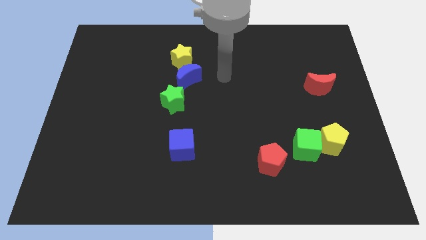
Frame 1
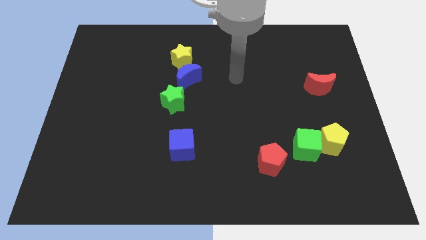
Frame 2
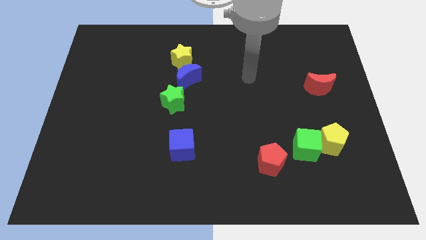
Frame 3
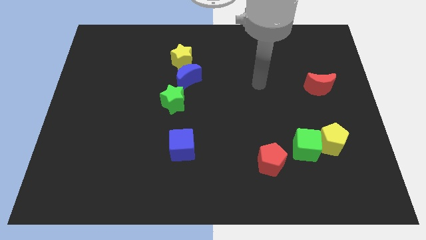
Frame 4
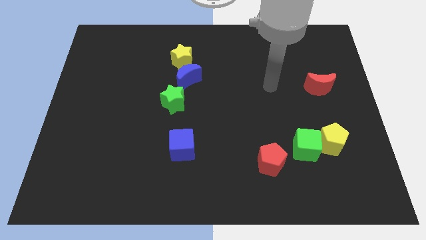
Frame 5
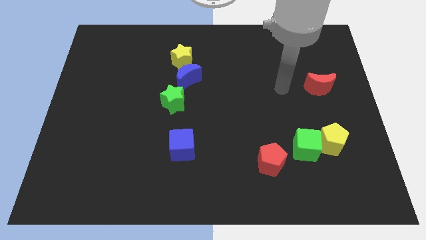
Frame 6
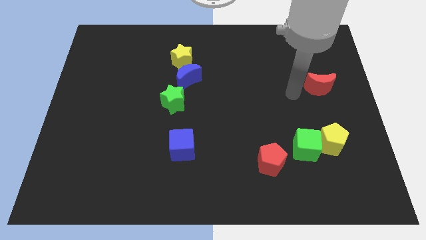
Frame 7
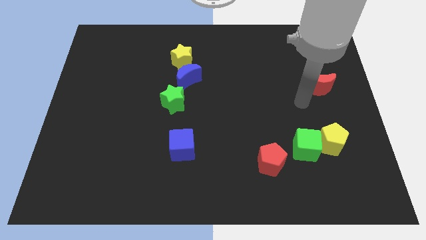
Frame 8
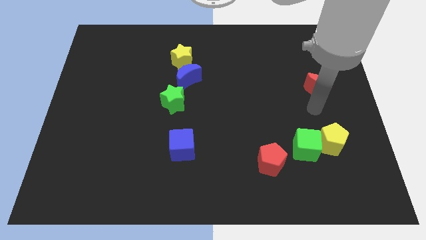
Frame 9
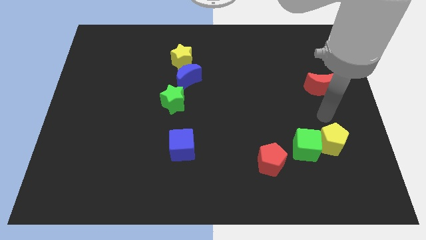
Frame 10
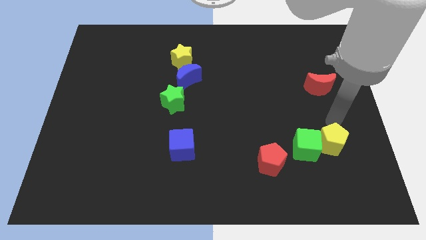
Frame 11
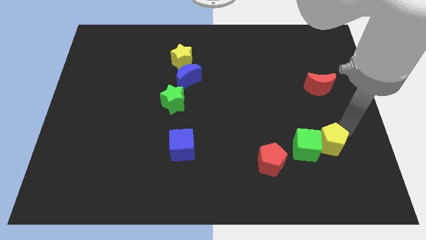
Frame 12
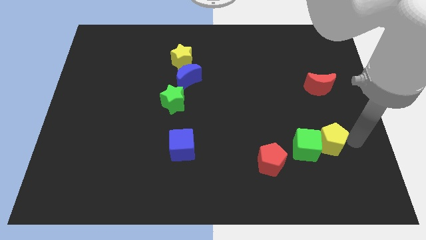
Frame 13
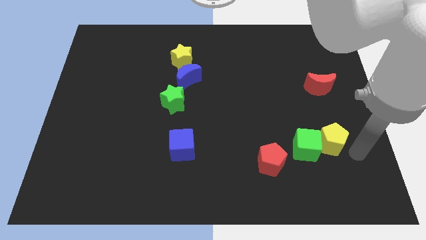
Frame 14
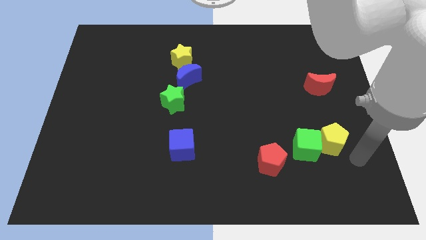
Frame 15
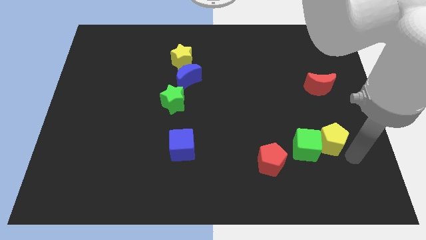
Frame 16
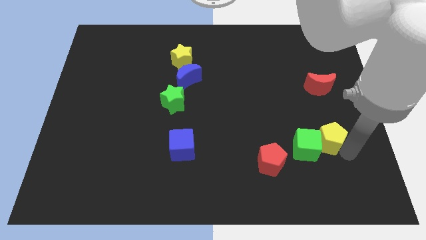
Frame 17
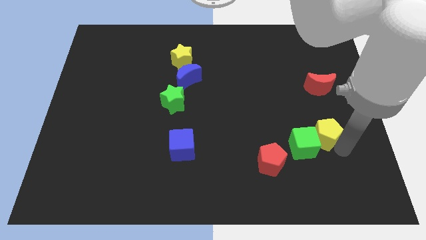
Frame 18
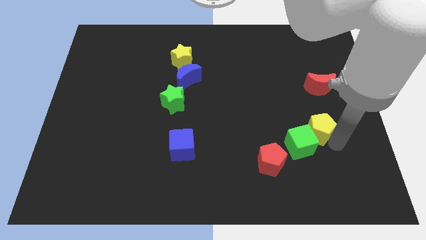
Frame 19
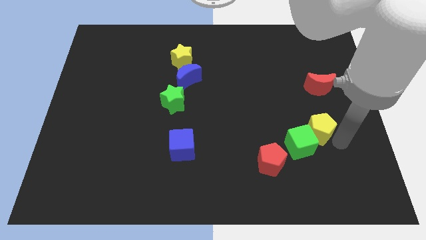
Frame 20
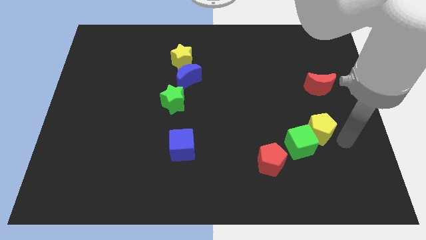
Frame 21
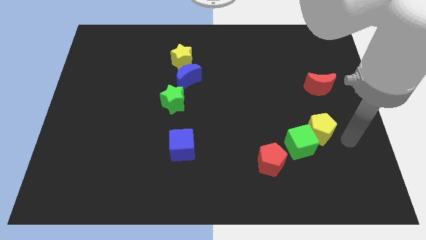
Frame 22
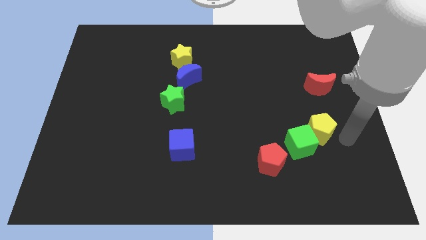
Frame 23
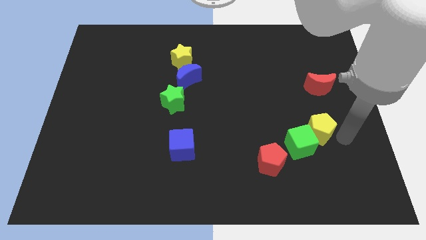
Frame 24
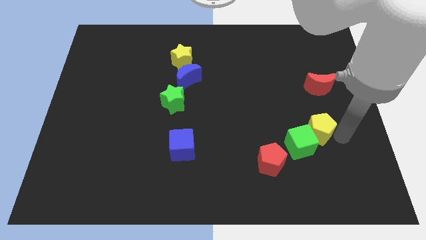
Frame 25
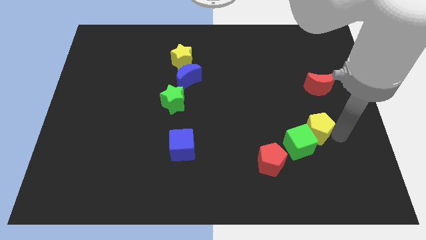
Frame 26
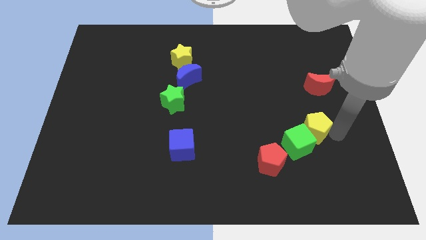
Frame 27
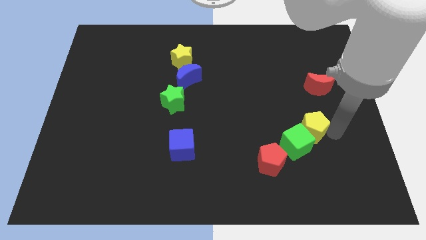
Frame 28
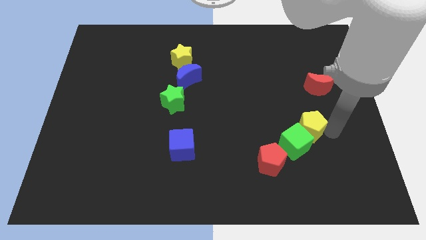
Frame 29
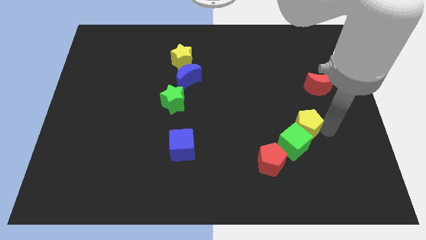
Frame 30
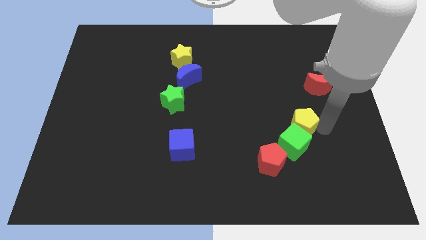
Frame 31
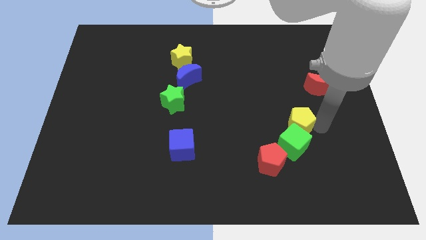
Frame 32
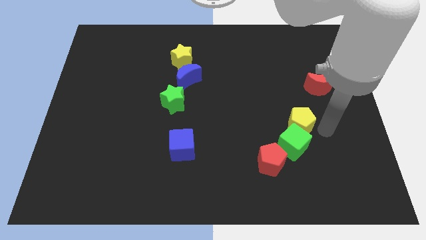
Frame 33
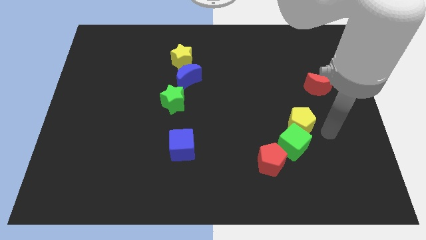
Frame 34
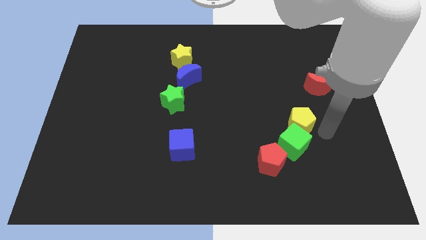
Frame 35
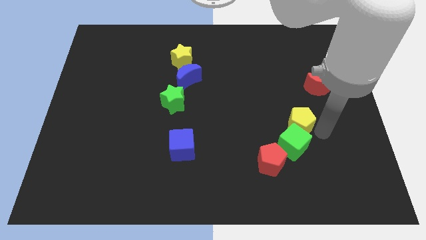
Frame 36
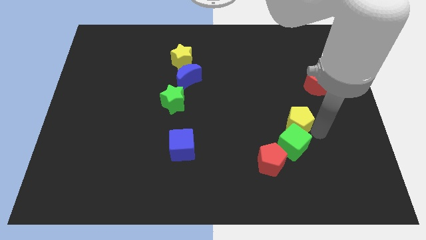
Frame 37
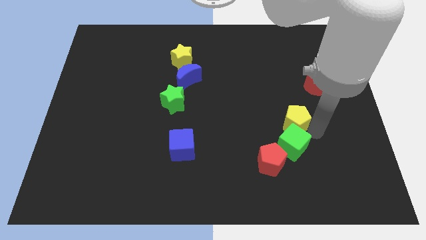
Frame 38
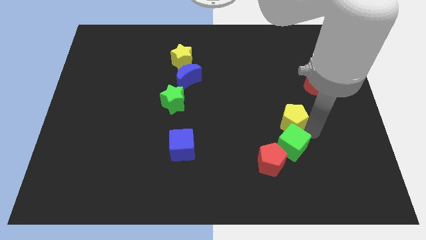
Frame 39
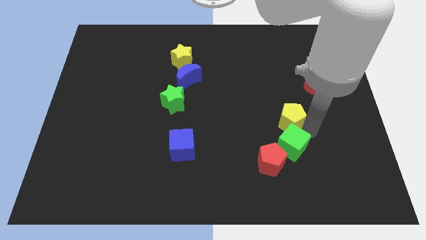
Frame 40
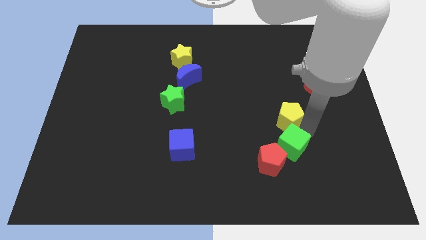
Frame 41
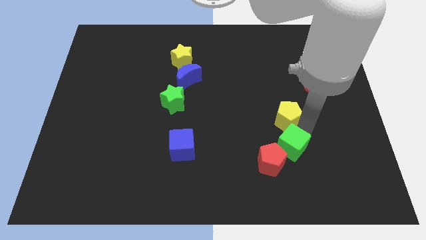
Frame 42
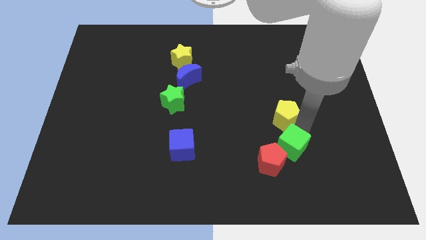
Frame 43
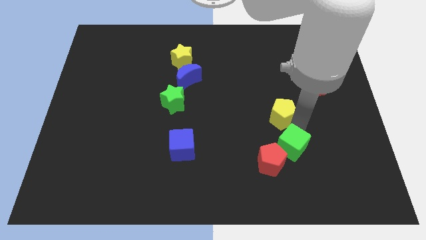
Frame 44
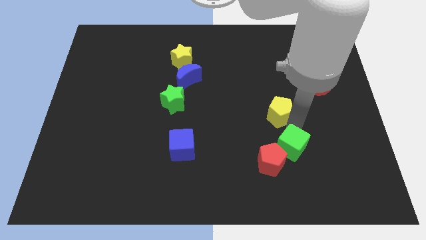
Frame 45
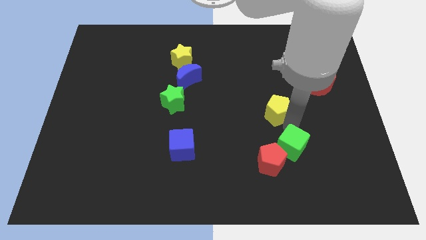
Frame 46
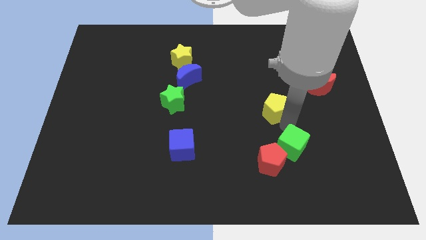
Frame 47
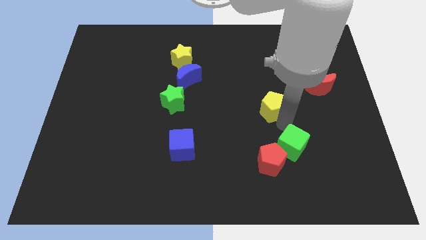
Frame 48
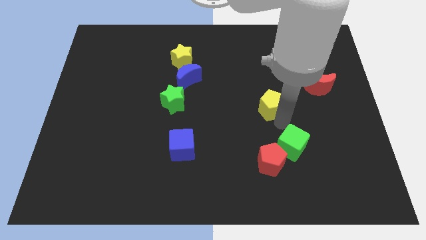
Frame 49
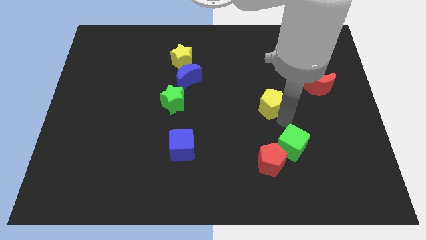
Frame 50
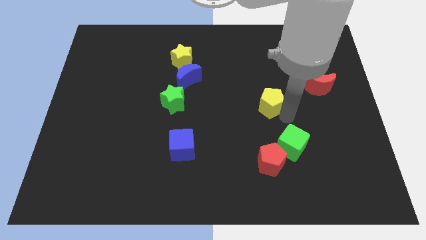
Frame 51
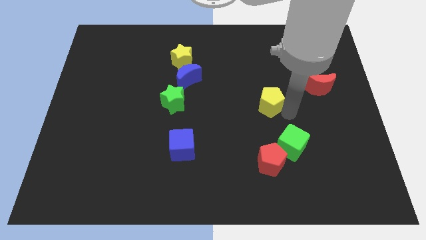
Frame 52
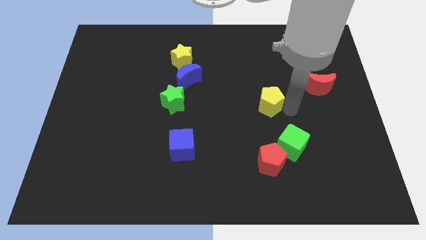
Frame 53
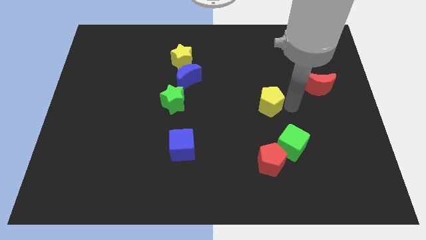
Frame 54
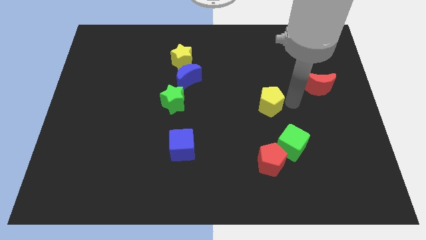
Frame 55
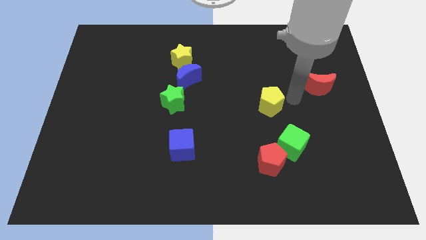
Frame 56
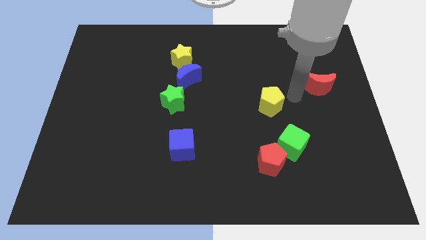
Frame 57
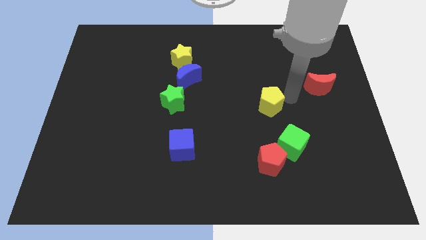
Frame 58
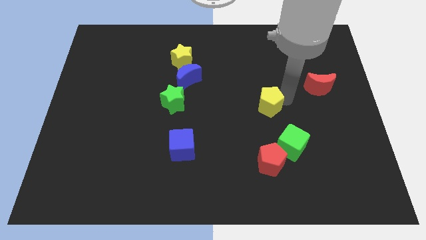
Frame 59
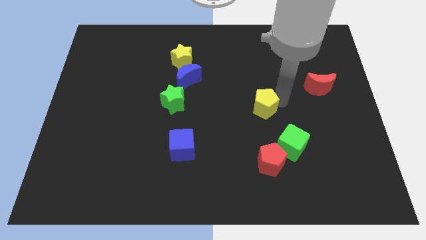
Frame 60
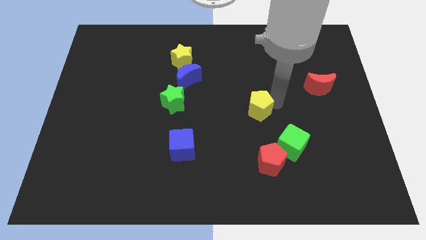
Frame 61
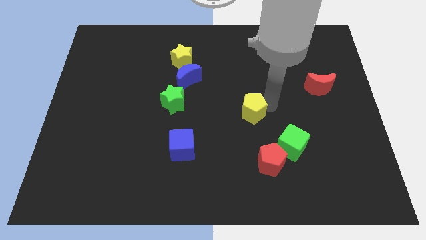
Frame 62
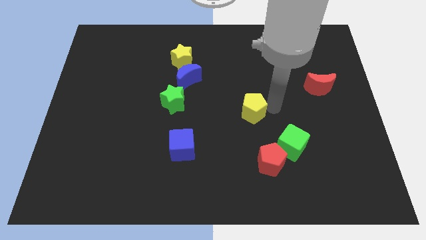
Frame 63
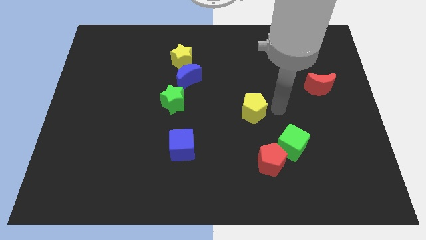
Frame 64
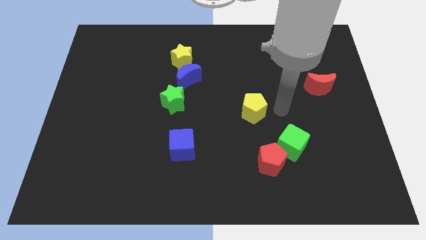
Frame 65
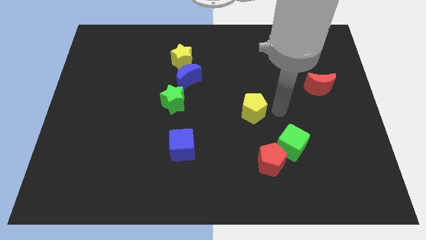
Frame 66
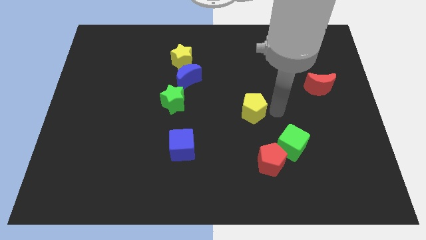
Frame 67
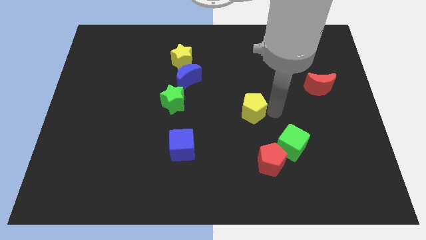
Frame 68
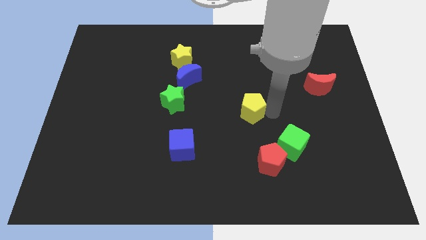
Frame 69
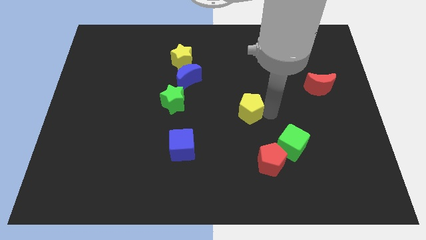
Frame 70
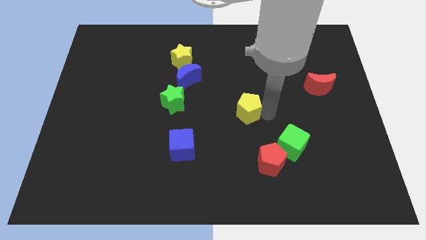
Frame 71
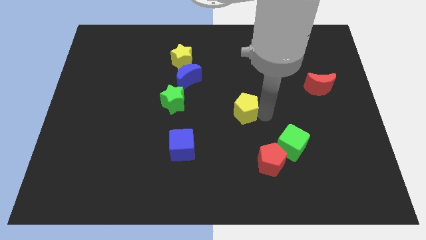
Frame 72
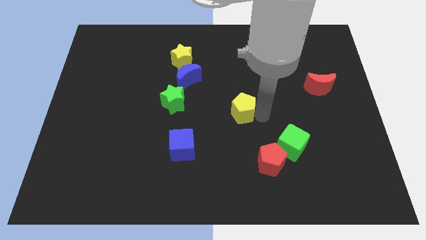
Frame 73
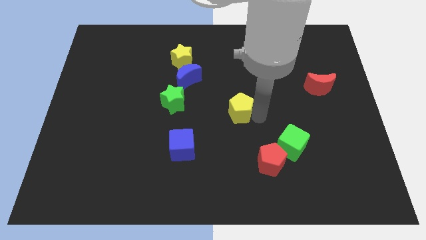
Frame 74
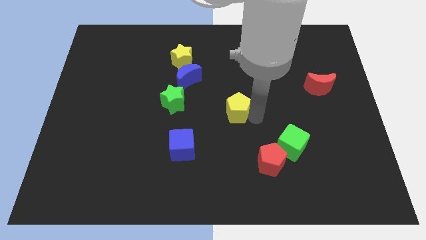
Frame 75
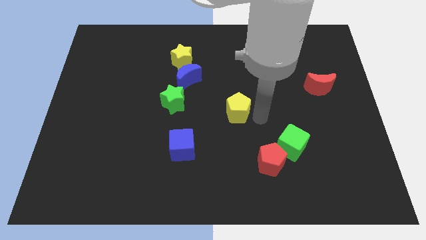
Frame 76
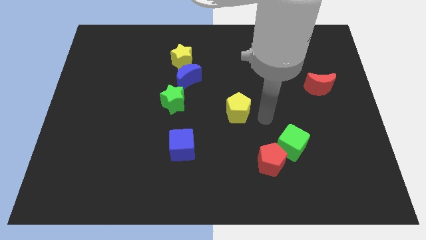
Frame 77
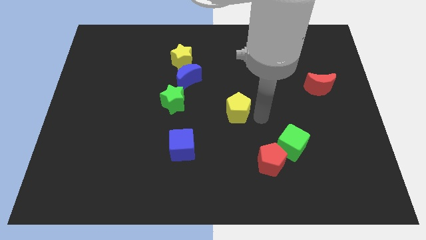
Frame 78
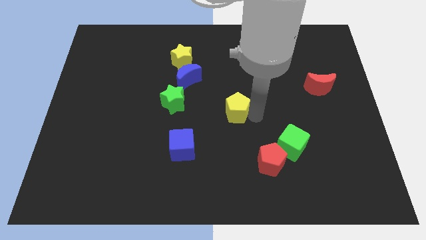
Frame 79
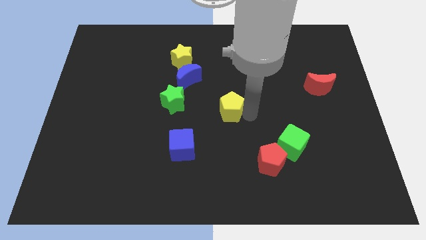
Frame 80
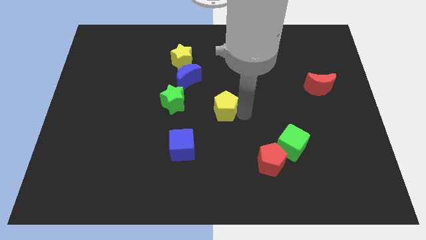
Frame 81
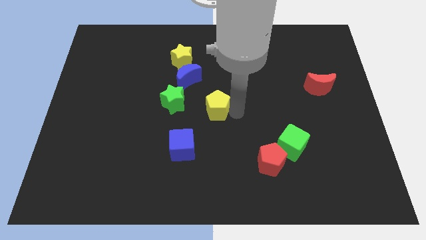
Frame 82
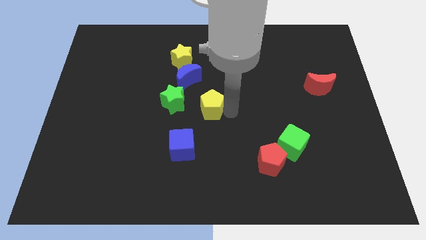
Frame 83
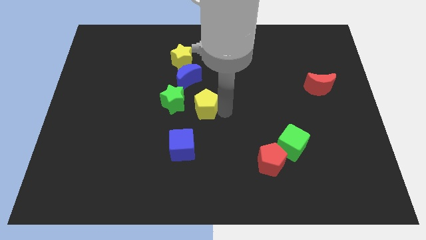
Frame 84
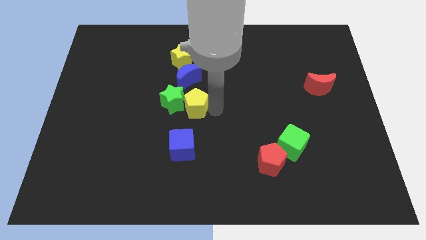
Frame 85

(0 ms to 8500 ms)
slide the yellow pentagon towards the green star
